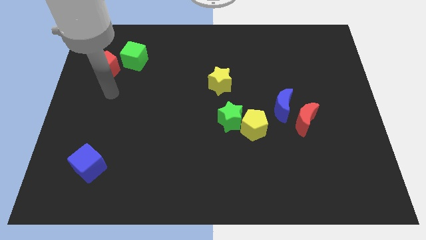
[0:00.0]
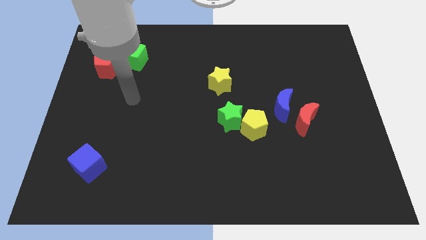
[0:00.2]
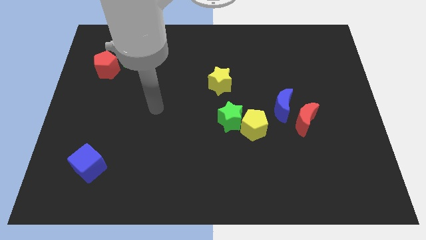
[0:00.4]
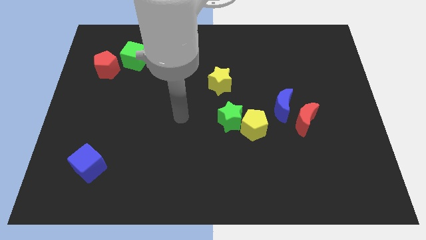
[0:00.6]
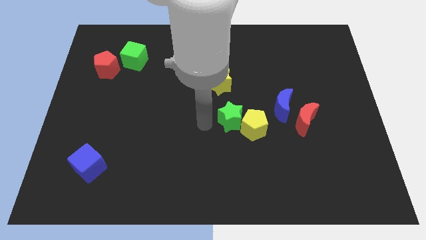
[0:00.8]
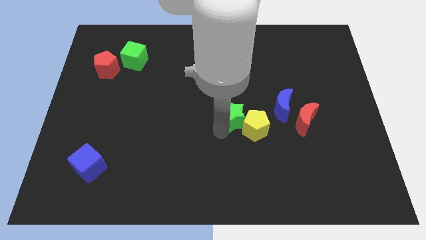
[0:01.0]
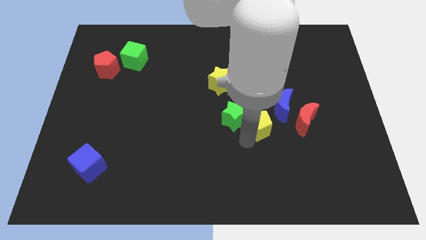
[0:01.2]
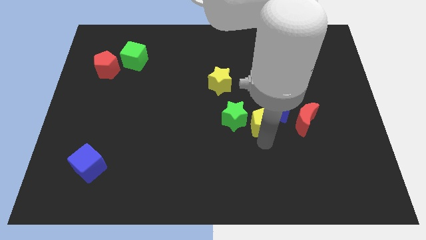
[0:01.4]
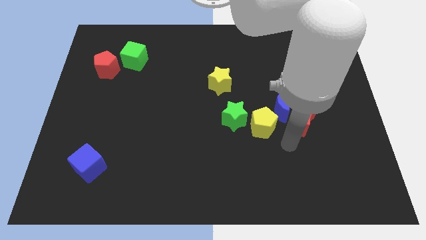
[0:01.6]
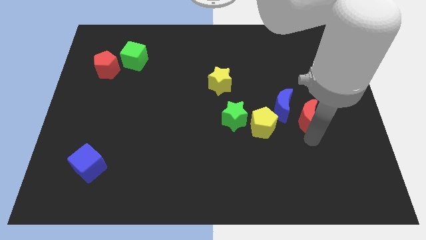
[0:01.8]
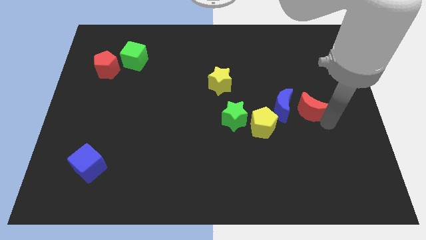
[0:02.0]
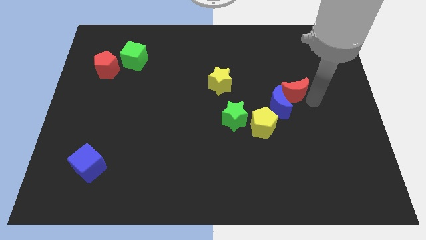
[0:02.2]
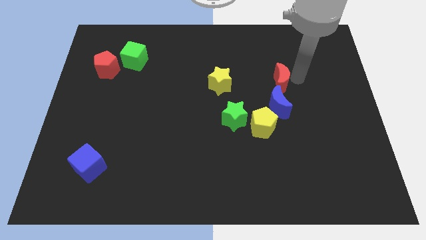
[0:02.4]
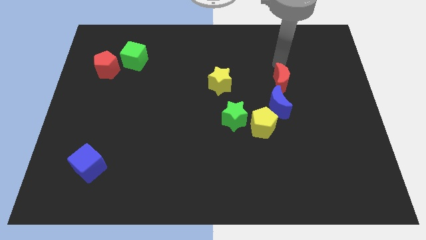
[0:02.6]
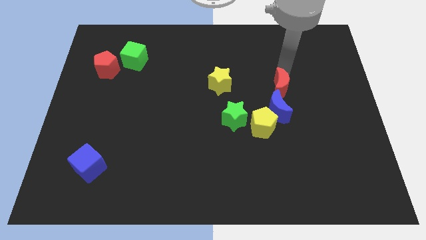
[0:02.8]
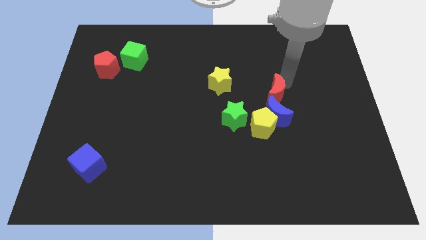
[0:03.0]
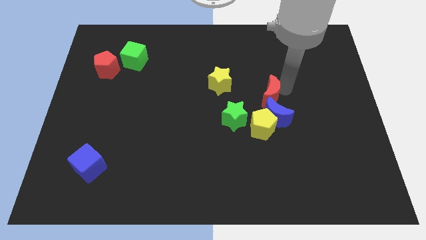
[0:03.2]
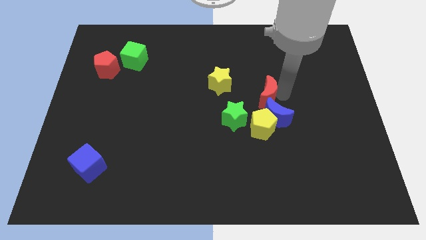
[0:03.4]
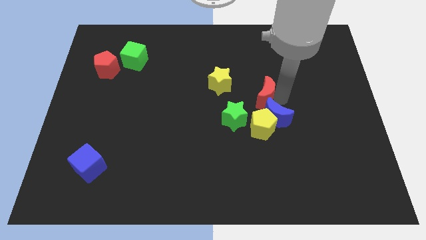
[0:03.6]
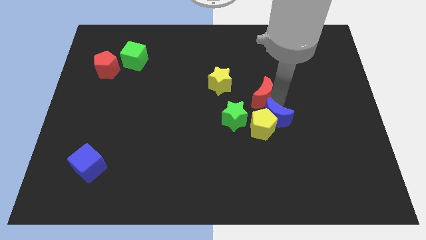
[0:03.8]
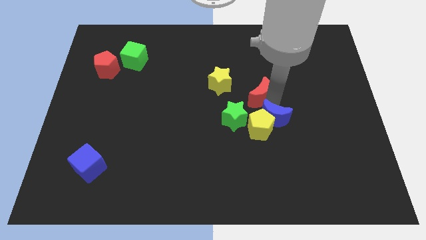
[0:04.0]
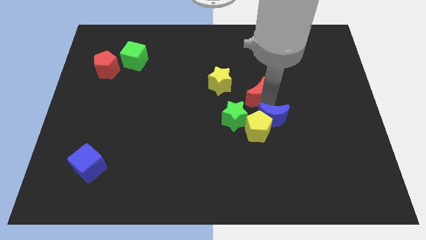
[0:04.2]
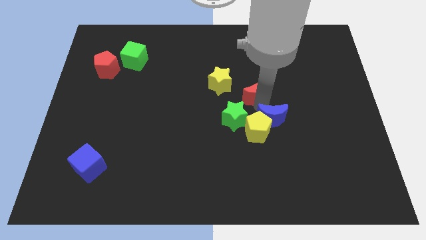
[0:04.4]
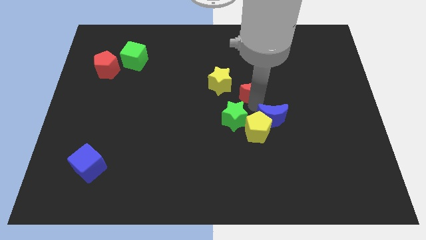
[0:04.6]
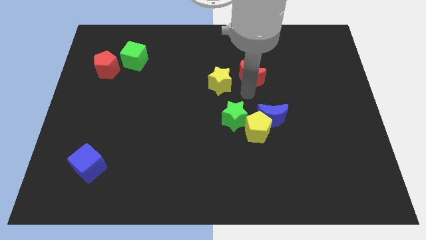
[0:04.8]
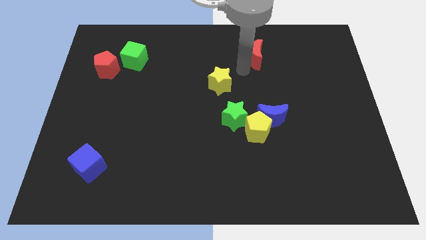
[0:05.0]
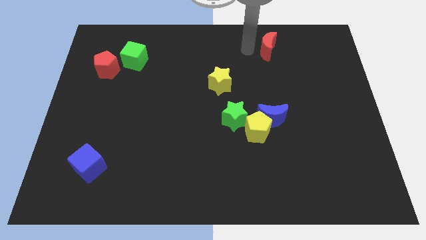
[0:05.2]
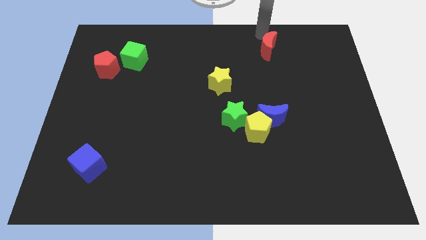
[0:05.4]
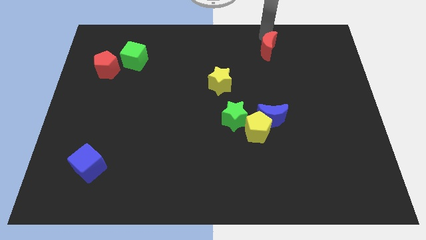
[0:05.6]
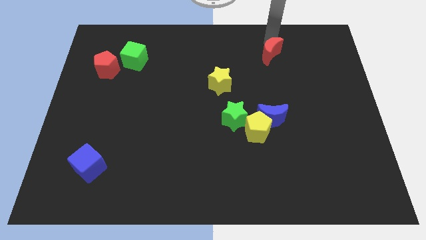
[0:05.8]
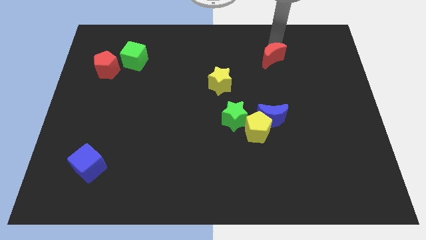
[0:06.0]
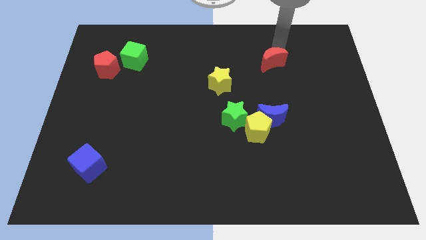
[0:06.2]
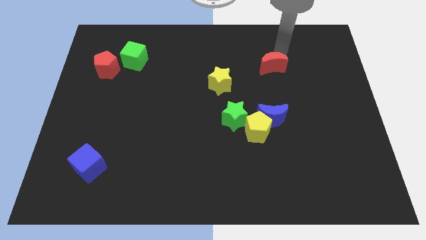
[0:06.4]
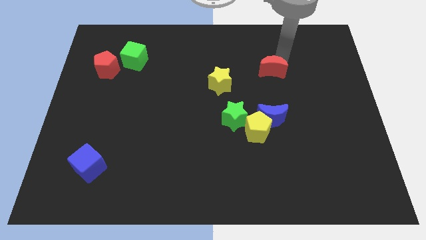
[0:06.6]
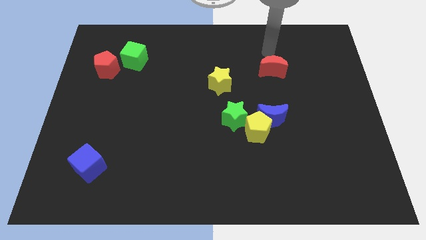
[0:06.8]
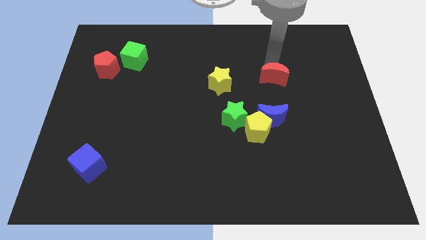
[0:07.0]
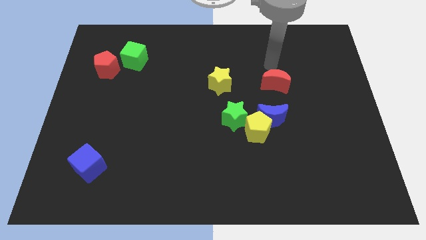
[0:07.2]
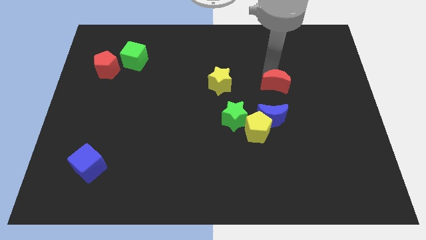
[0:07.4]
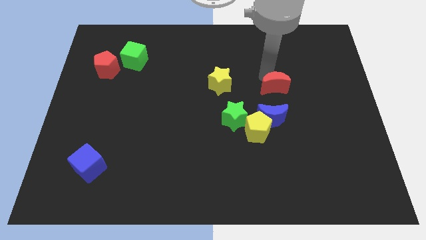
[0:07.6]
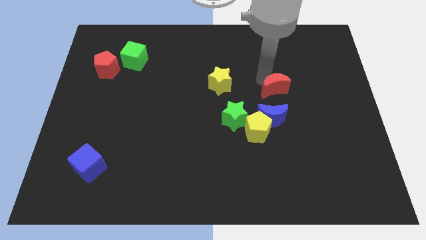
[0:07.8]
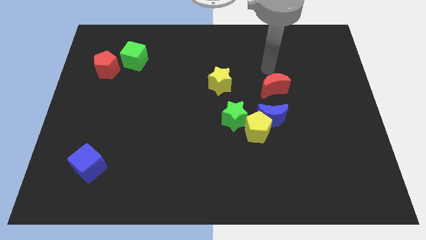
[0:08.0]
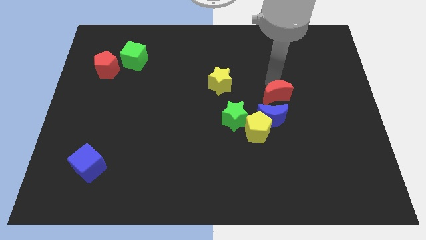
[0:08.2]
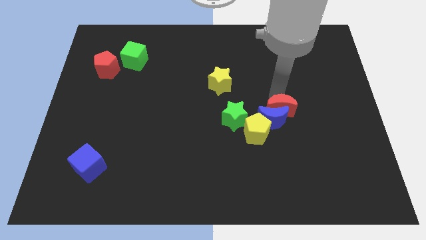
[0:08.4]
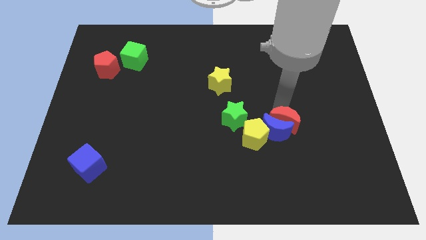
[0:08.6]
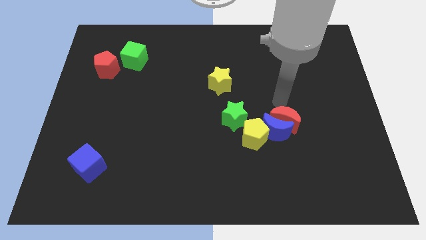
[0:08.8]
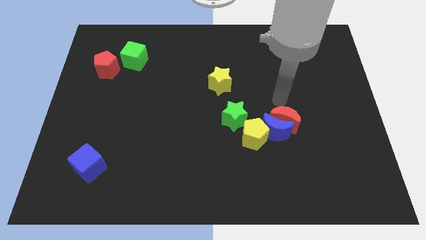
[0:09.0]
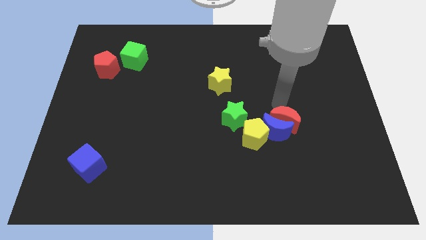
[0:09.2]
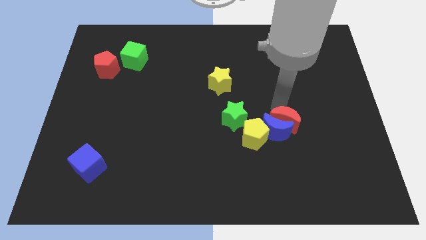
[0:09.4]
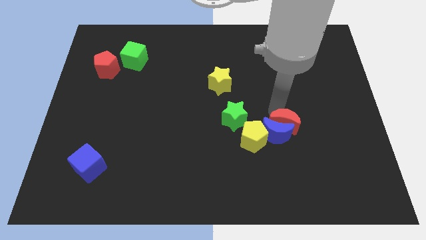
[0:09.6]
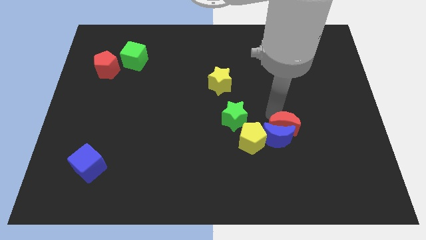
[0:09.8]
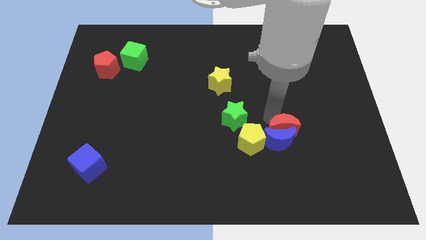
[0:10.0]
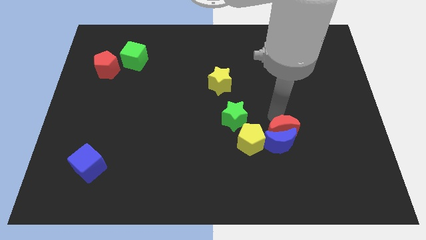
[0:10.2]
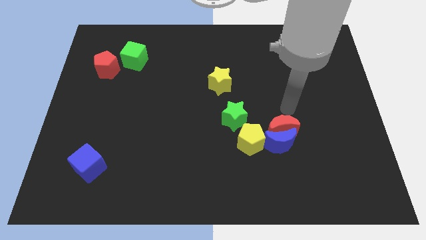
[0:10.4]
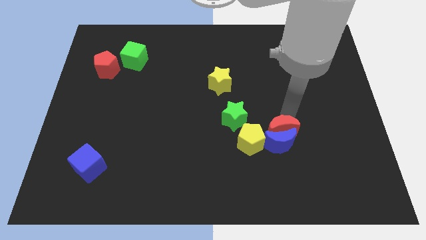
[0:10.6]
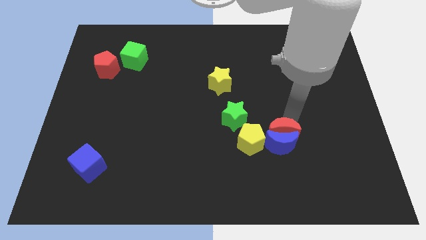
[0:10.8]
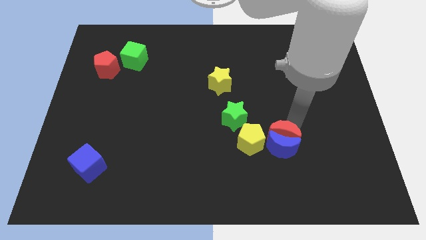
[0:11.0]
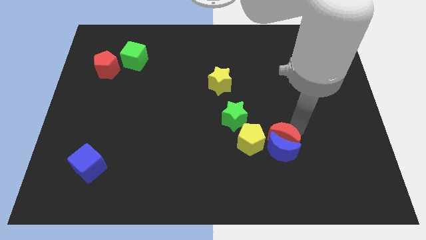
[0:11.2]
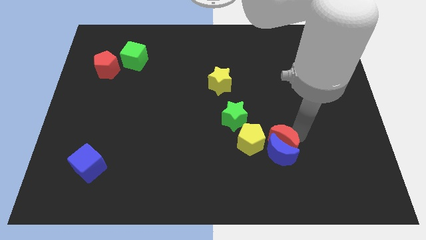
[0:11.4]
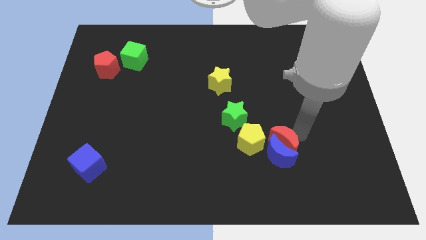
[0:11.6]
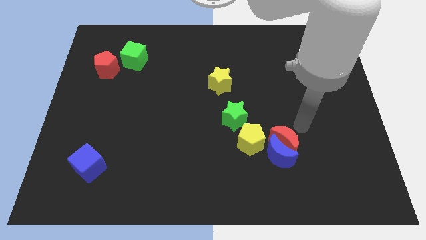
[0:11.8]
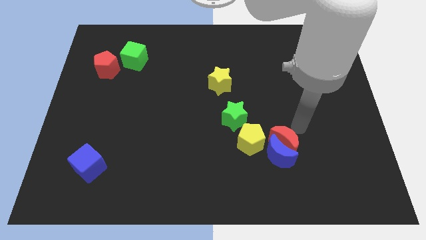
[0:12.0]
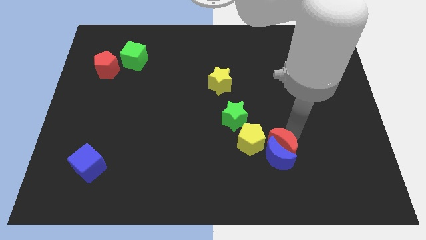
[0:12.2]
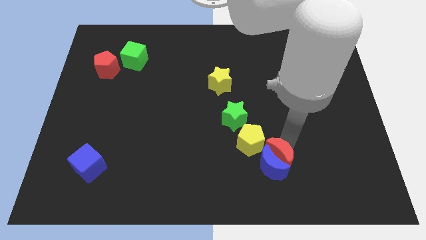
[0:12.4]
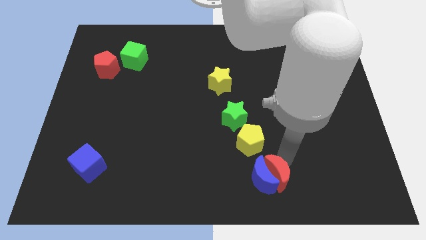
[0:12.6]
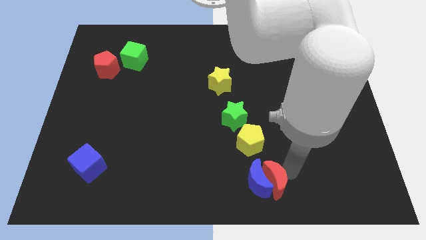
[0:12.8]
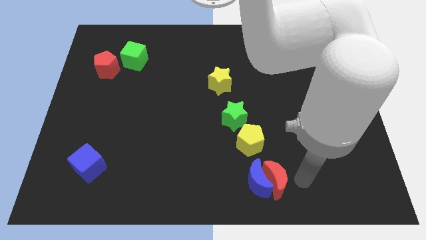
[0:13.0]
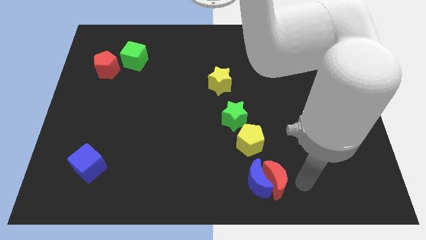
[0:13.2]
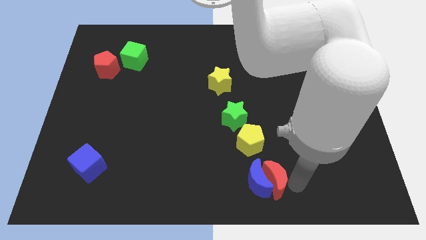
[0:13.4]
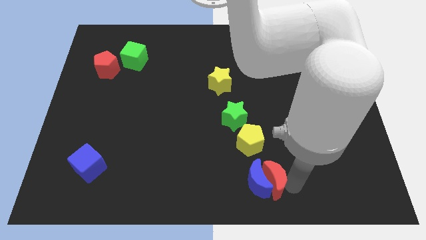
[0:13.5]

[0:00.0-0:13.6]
move the red moon to the bottom
